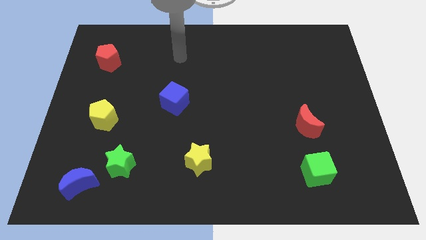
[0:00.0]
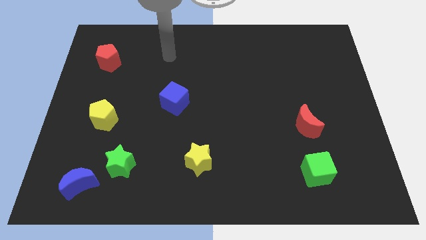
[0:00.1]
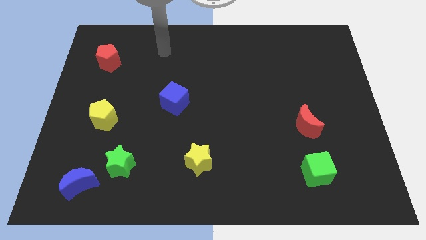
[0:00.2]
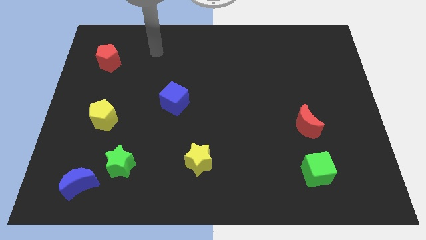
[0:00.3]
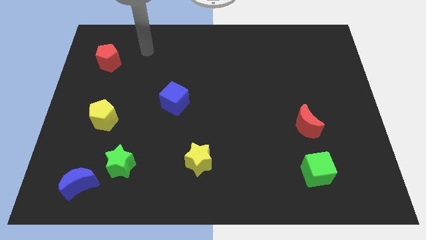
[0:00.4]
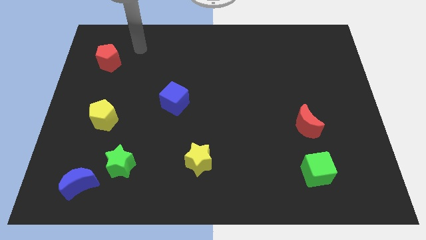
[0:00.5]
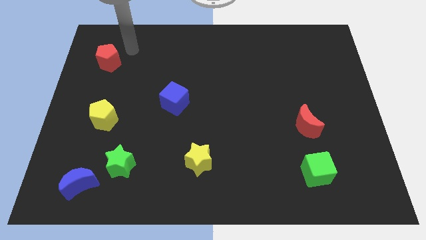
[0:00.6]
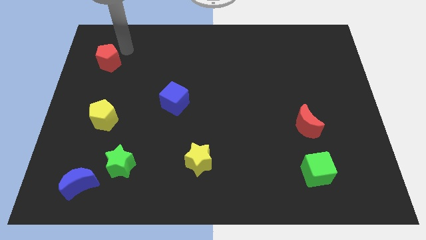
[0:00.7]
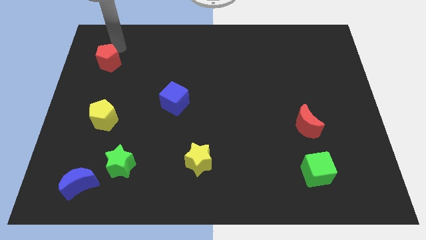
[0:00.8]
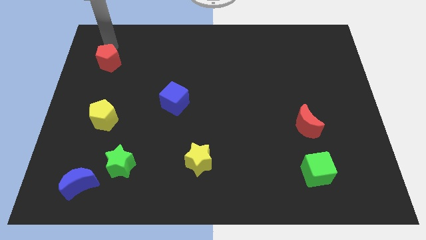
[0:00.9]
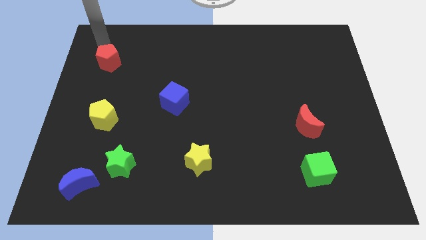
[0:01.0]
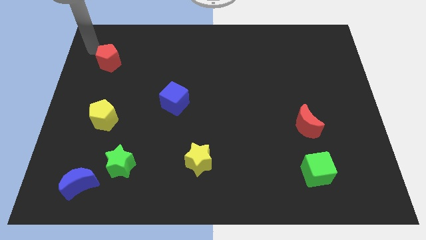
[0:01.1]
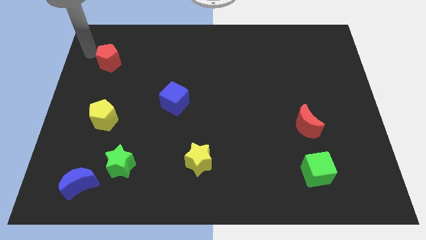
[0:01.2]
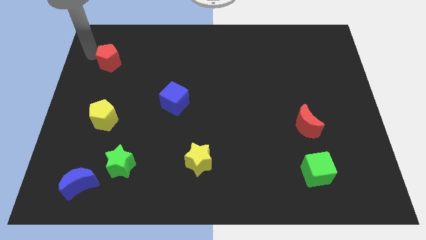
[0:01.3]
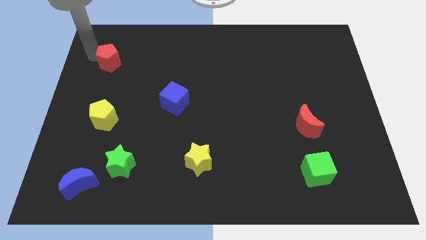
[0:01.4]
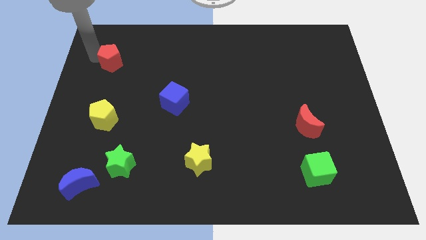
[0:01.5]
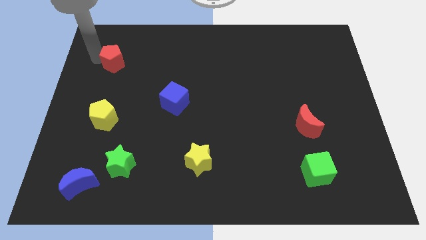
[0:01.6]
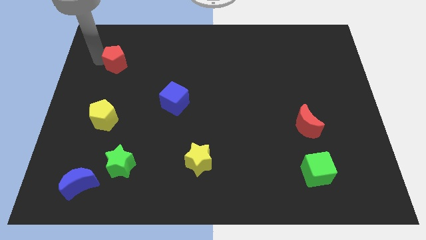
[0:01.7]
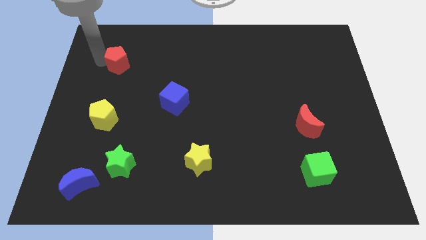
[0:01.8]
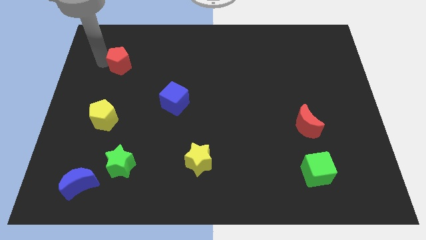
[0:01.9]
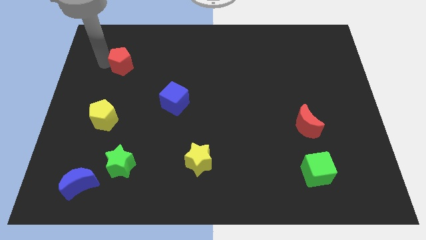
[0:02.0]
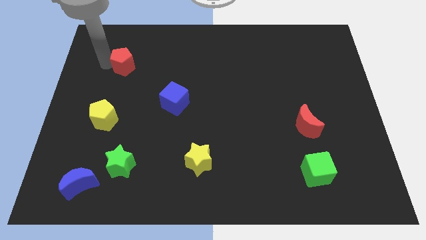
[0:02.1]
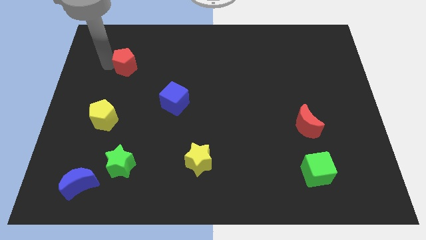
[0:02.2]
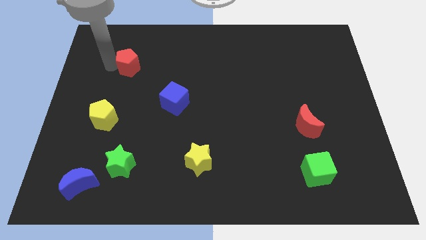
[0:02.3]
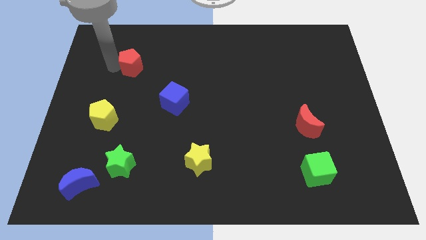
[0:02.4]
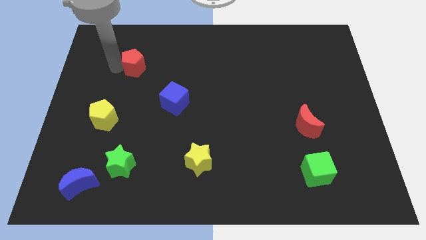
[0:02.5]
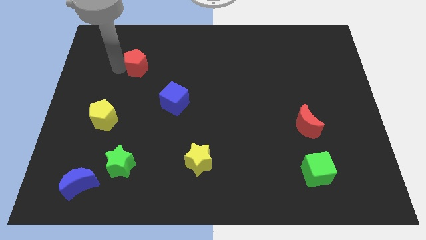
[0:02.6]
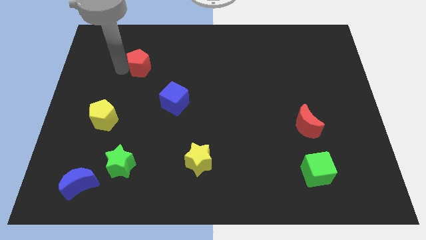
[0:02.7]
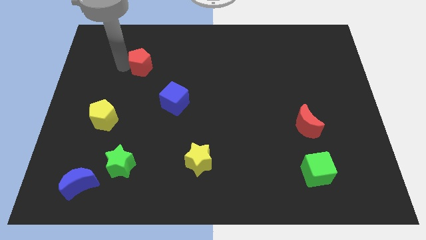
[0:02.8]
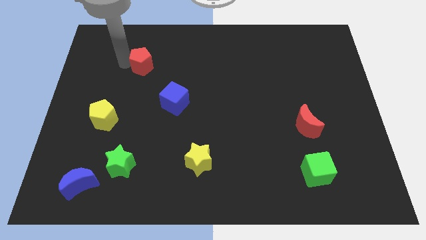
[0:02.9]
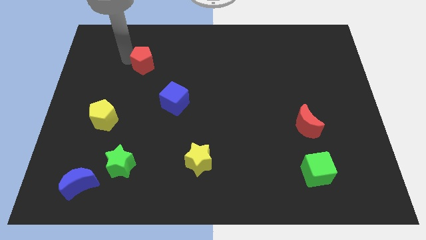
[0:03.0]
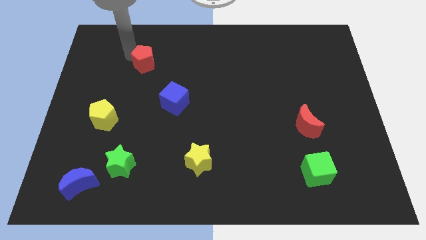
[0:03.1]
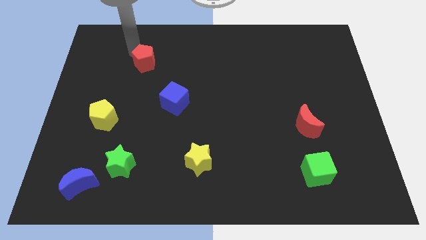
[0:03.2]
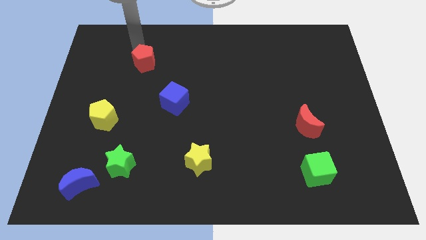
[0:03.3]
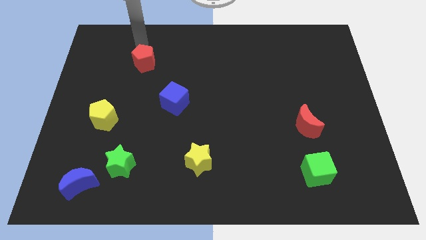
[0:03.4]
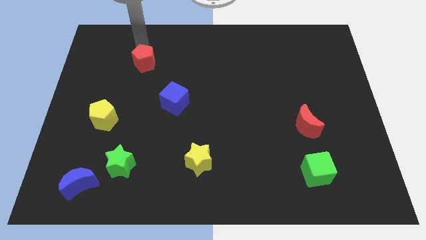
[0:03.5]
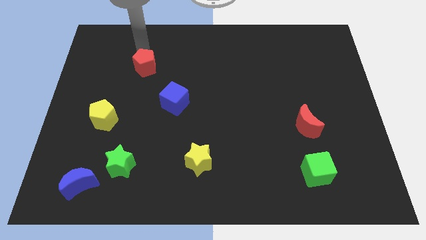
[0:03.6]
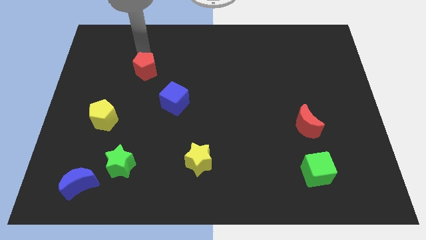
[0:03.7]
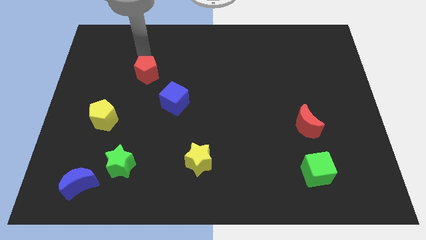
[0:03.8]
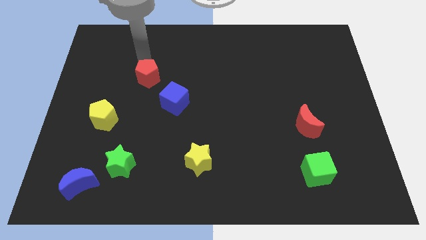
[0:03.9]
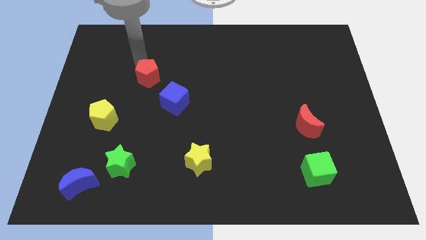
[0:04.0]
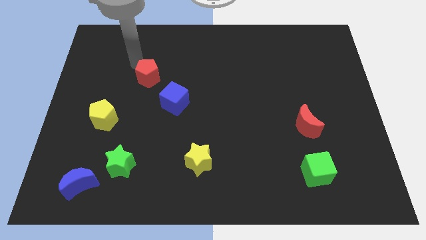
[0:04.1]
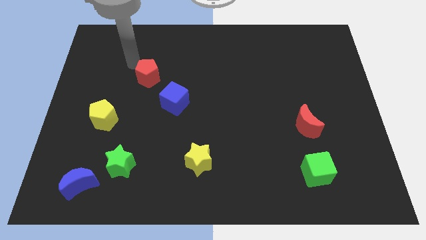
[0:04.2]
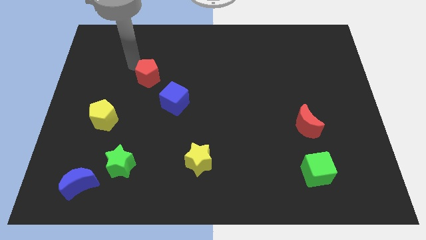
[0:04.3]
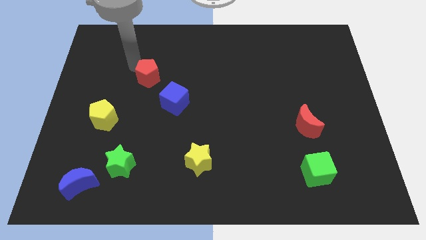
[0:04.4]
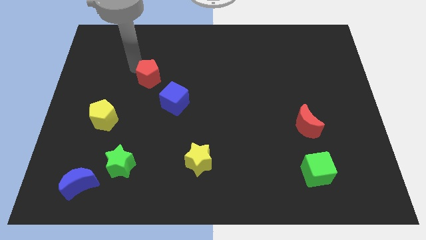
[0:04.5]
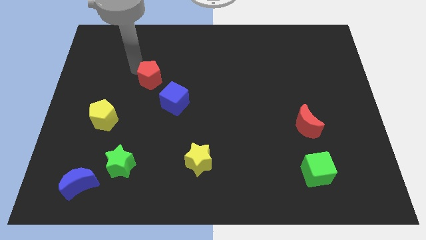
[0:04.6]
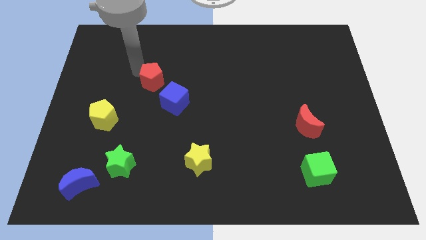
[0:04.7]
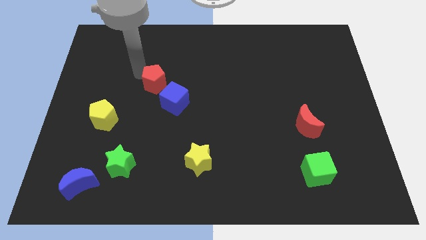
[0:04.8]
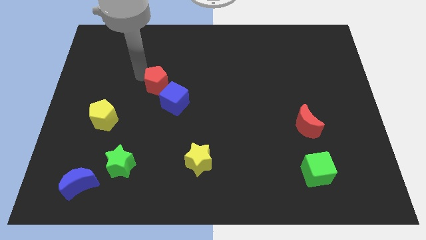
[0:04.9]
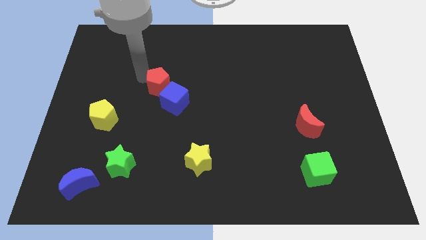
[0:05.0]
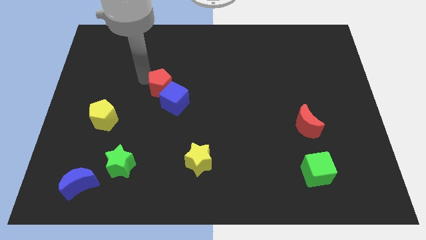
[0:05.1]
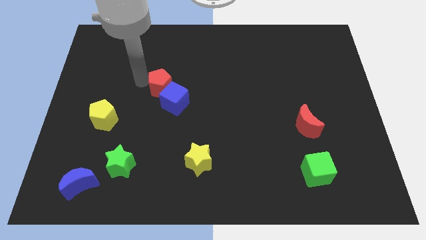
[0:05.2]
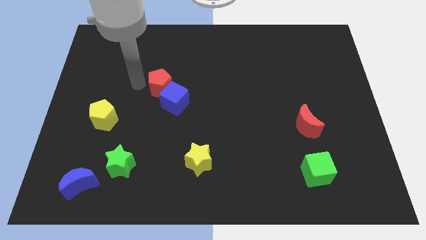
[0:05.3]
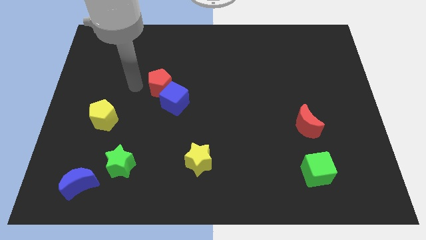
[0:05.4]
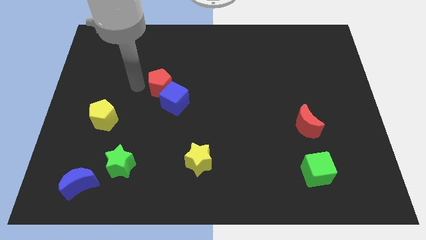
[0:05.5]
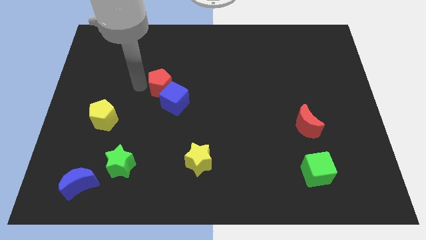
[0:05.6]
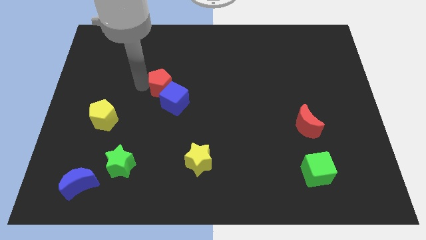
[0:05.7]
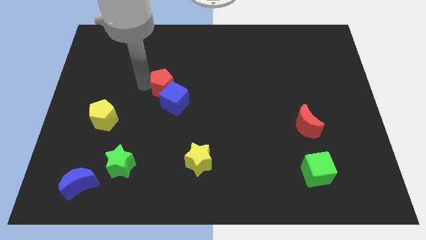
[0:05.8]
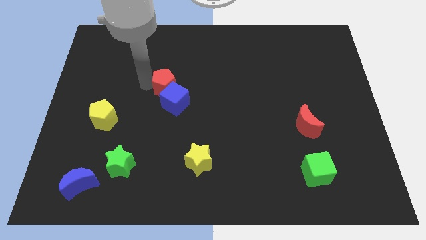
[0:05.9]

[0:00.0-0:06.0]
push the red pentagon to the center of the board
